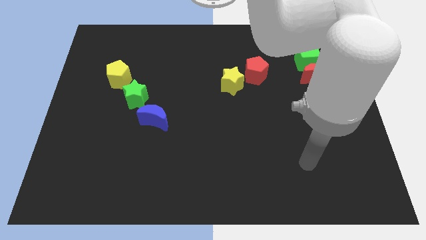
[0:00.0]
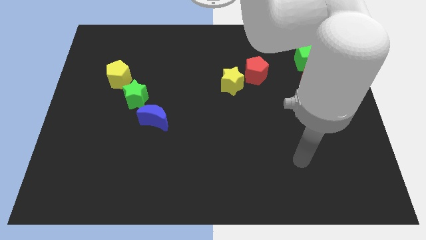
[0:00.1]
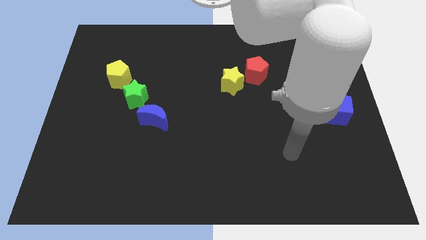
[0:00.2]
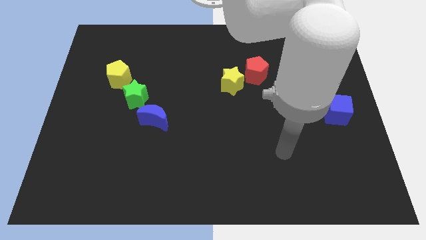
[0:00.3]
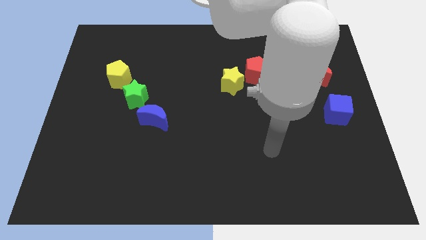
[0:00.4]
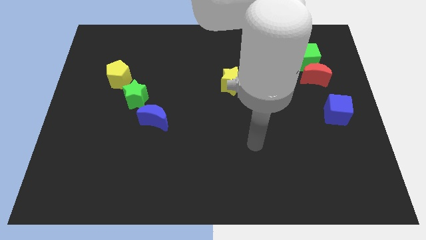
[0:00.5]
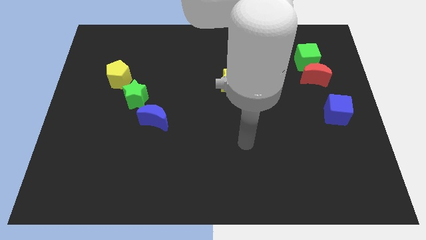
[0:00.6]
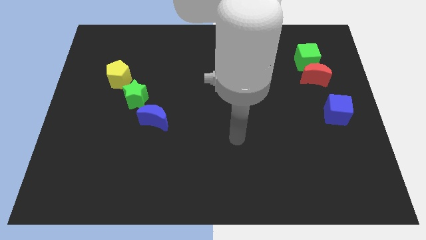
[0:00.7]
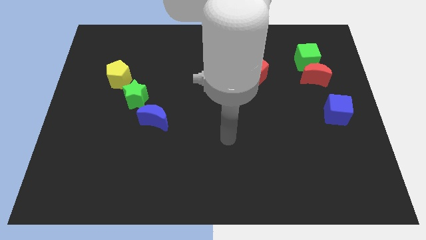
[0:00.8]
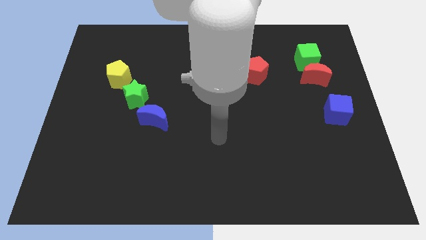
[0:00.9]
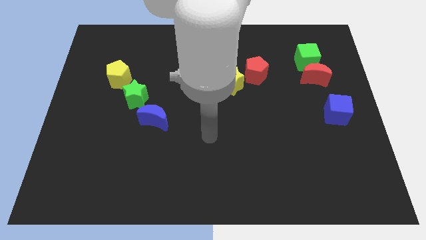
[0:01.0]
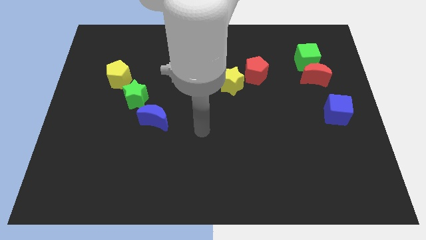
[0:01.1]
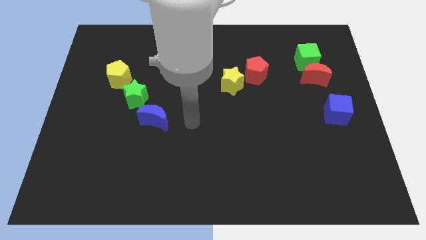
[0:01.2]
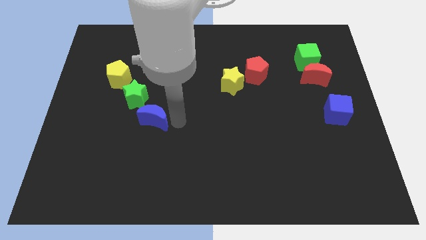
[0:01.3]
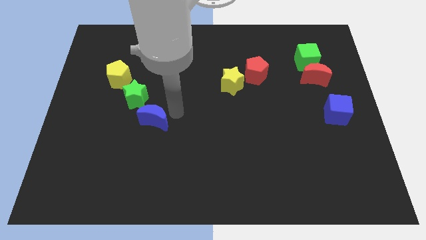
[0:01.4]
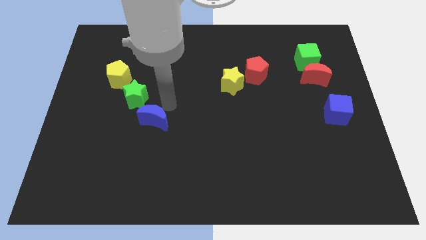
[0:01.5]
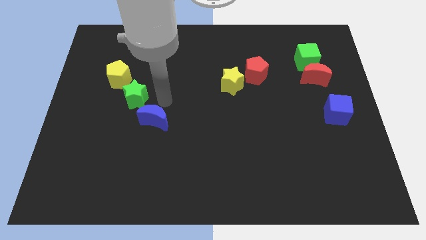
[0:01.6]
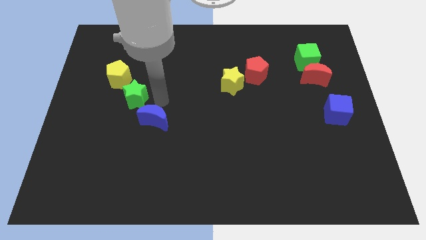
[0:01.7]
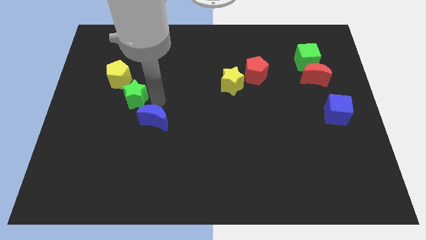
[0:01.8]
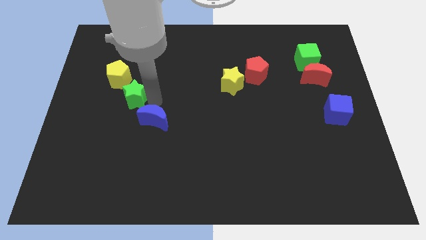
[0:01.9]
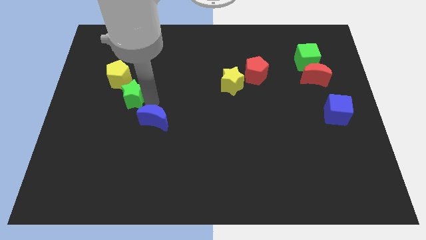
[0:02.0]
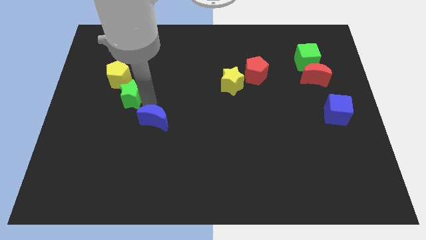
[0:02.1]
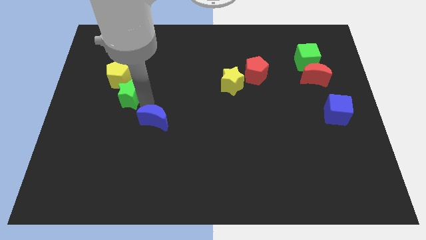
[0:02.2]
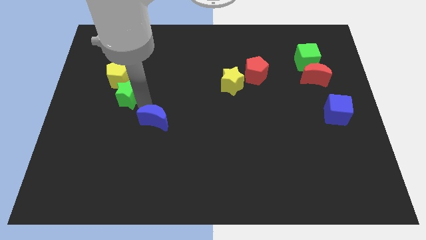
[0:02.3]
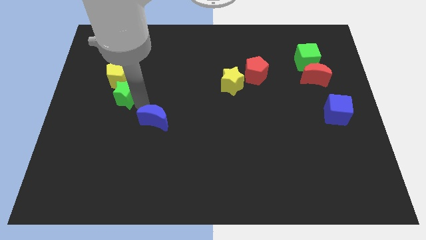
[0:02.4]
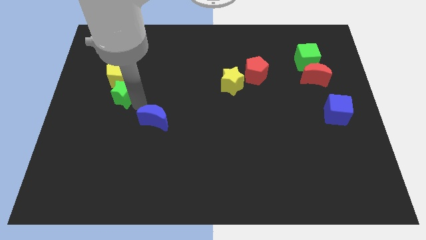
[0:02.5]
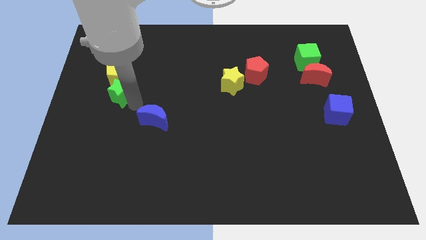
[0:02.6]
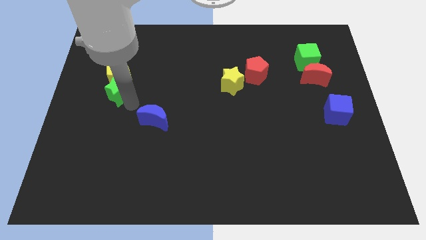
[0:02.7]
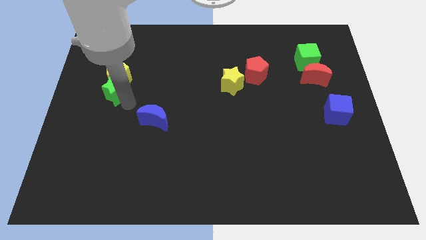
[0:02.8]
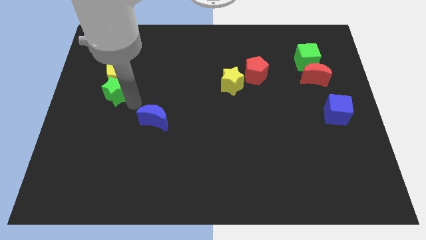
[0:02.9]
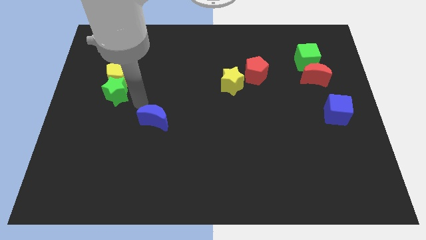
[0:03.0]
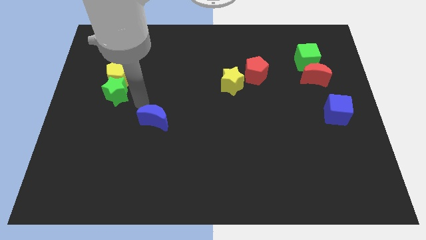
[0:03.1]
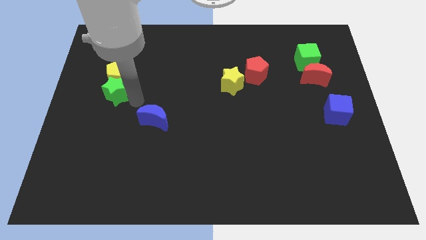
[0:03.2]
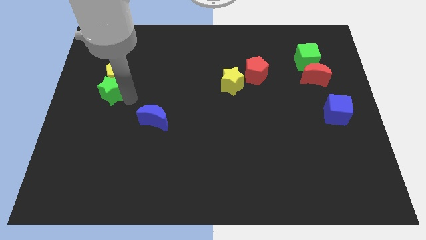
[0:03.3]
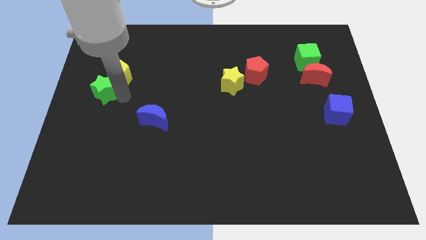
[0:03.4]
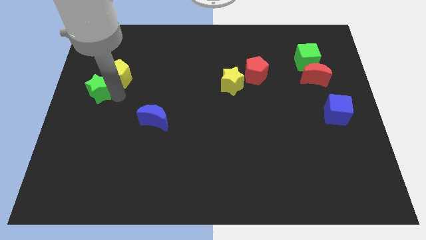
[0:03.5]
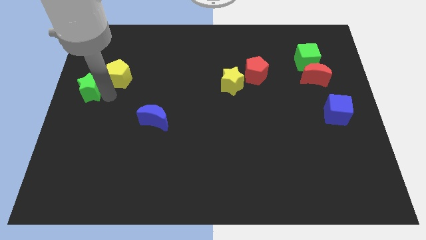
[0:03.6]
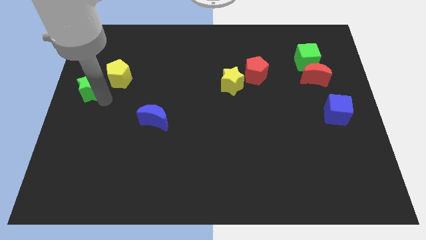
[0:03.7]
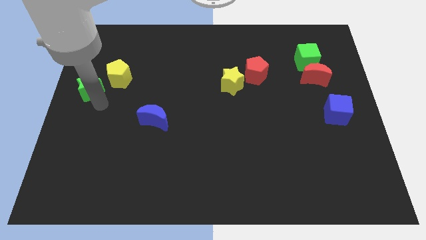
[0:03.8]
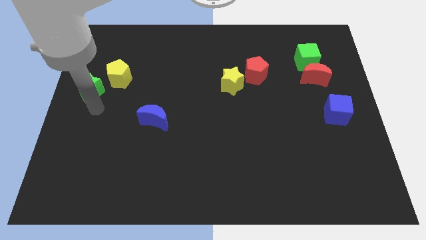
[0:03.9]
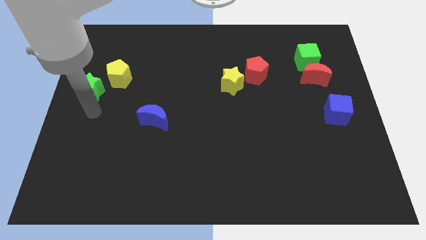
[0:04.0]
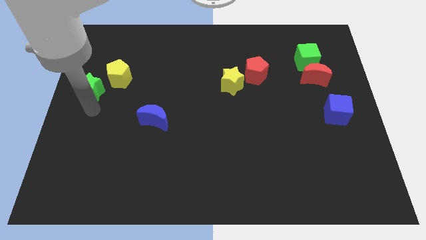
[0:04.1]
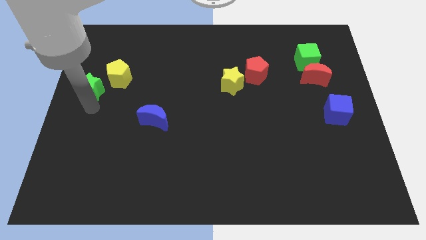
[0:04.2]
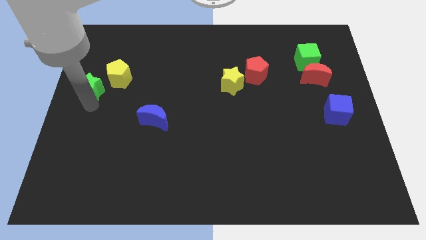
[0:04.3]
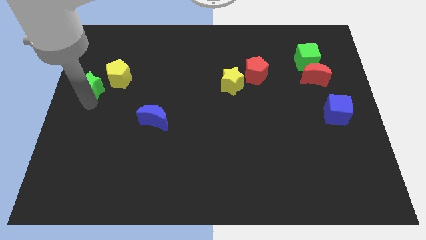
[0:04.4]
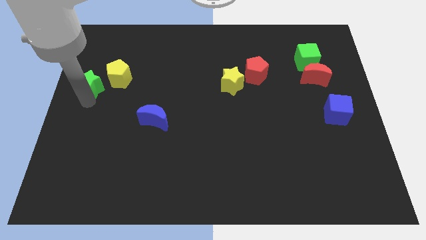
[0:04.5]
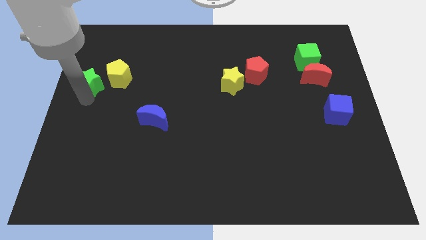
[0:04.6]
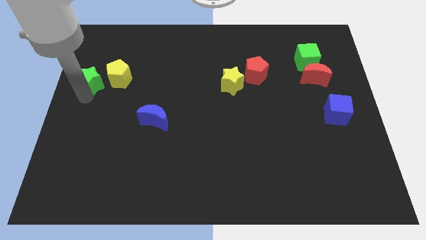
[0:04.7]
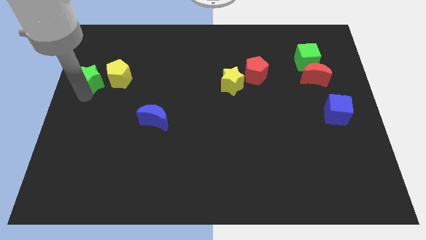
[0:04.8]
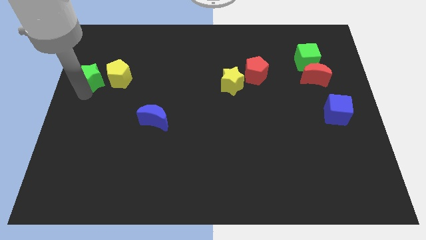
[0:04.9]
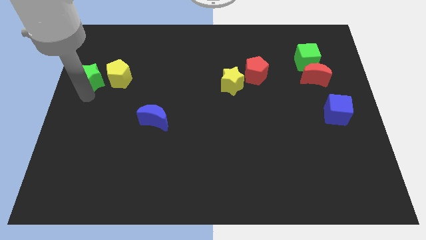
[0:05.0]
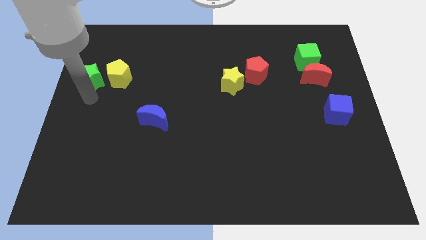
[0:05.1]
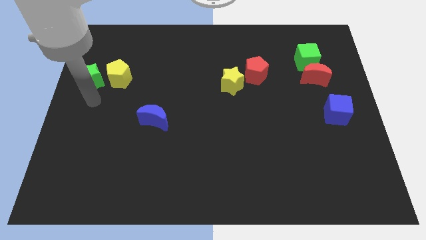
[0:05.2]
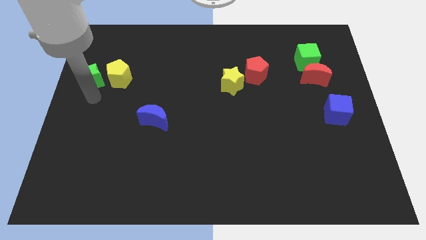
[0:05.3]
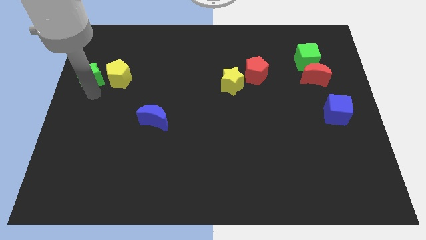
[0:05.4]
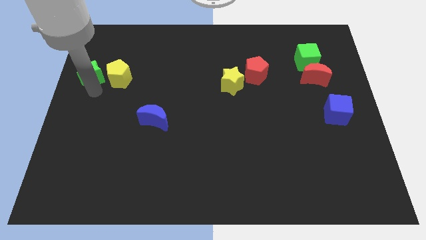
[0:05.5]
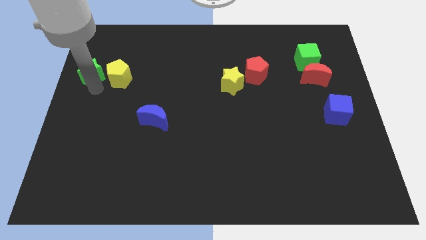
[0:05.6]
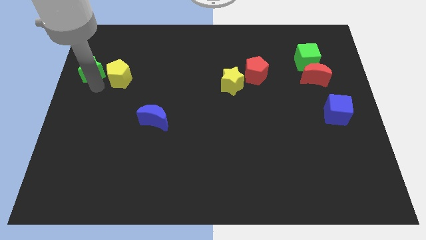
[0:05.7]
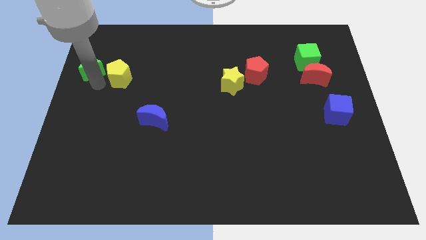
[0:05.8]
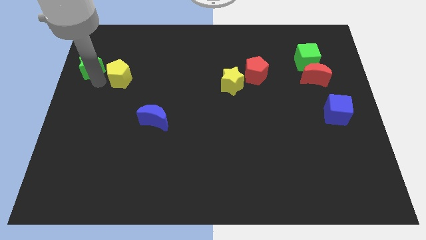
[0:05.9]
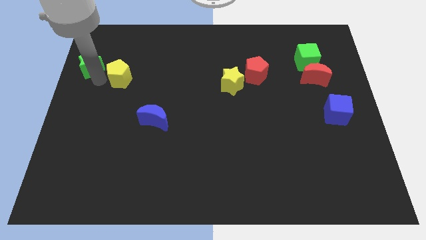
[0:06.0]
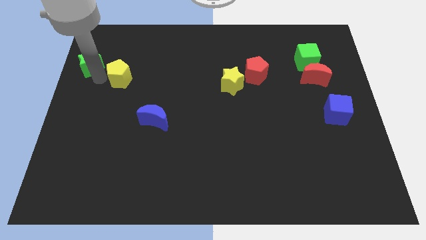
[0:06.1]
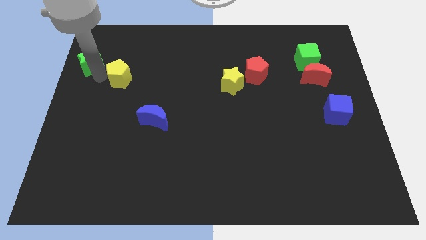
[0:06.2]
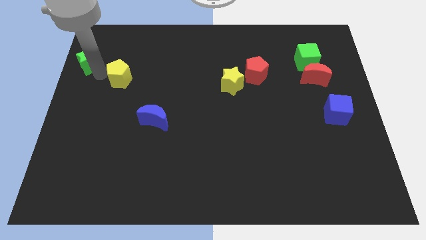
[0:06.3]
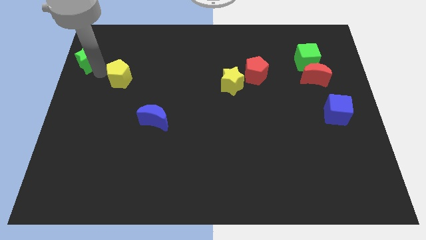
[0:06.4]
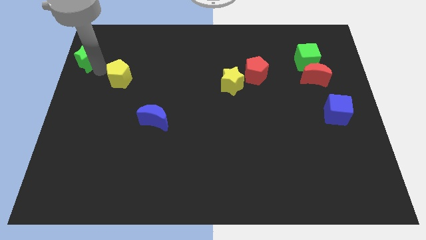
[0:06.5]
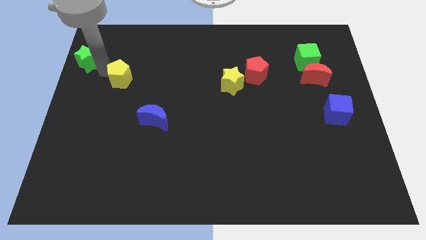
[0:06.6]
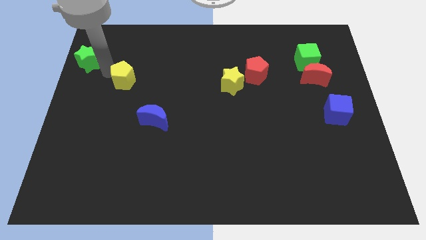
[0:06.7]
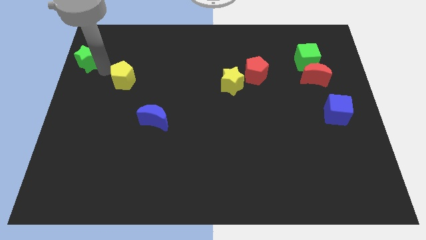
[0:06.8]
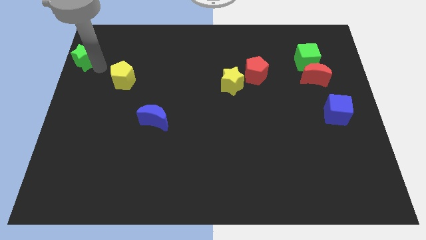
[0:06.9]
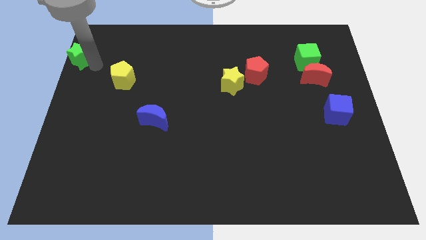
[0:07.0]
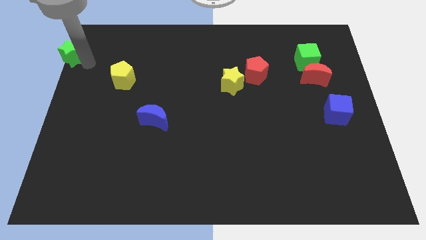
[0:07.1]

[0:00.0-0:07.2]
slide the green star to the upper left corner
